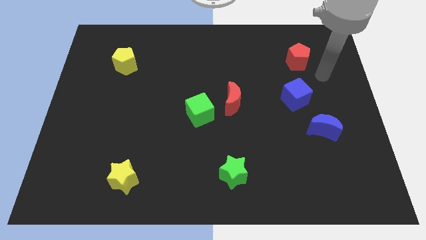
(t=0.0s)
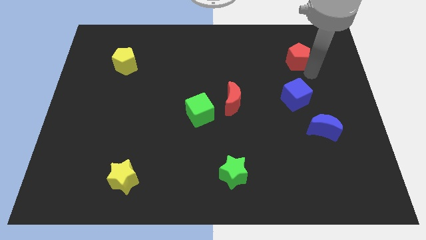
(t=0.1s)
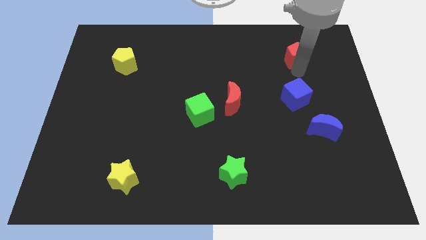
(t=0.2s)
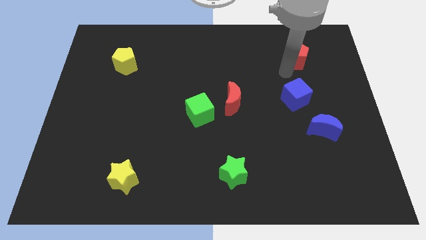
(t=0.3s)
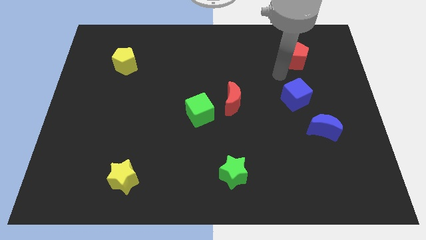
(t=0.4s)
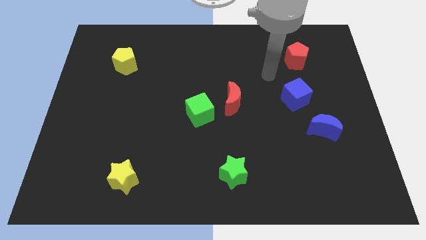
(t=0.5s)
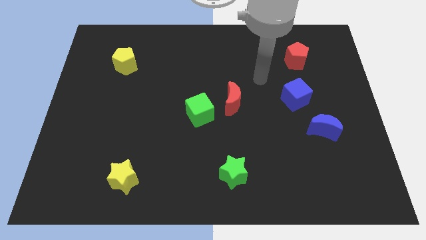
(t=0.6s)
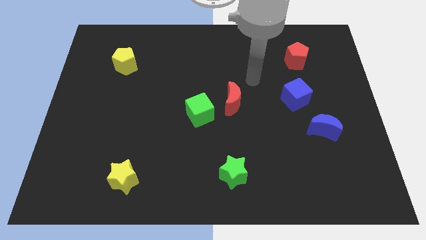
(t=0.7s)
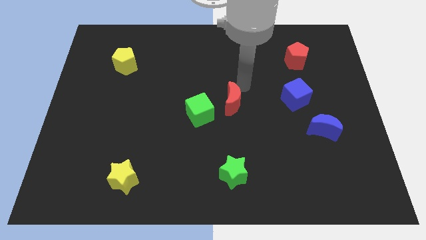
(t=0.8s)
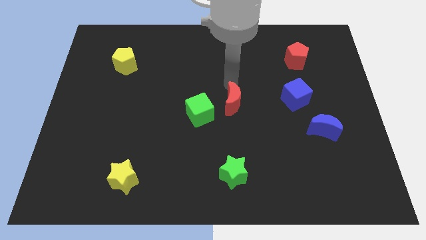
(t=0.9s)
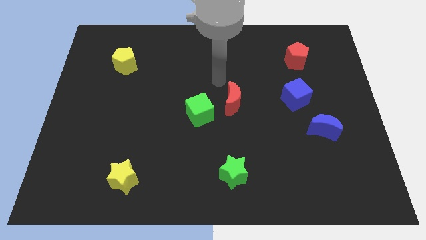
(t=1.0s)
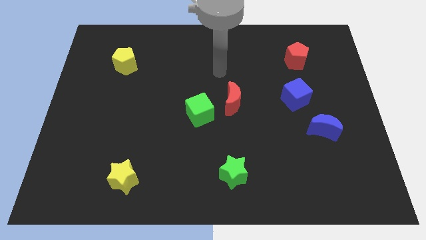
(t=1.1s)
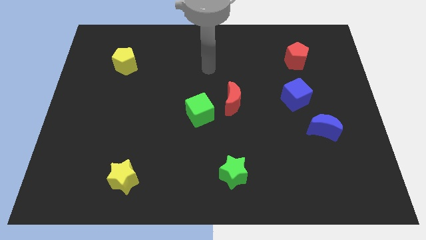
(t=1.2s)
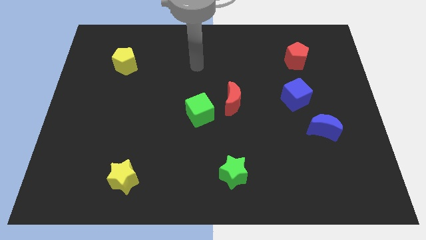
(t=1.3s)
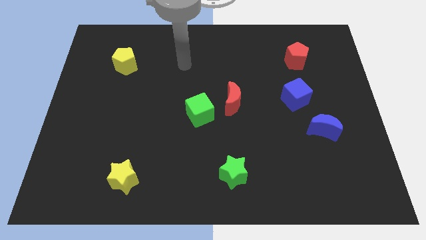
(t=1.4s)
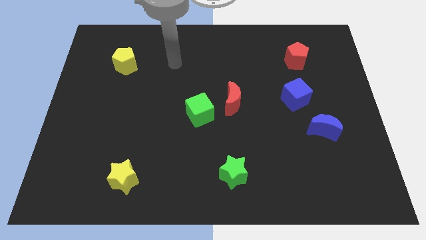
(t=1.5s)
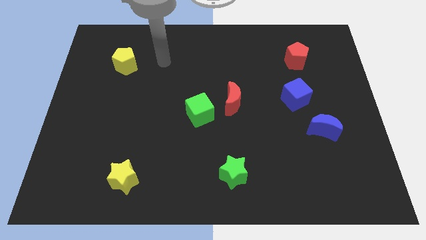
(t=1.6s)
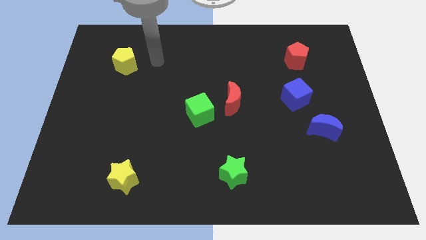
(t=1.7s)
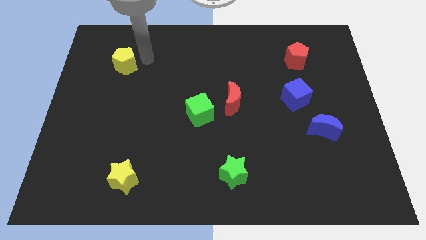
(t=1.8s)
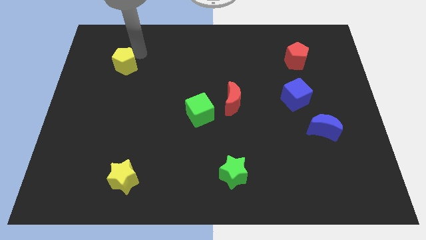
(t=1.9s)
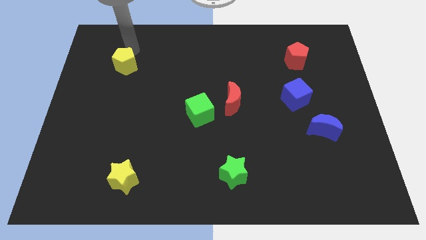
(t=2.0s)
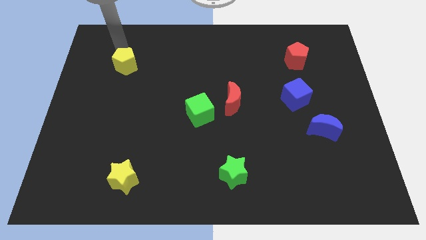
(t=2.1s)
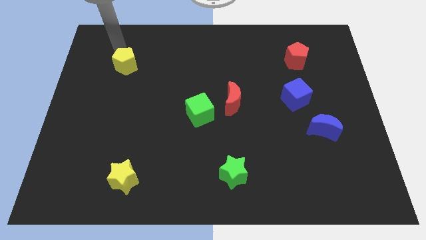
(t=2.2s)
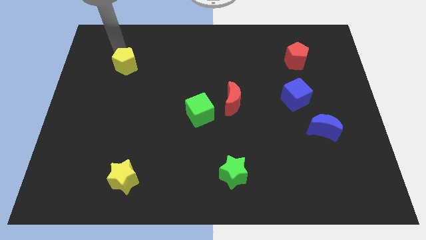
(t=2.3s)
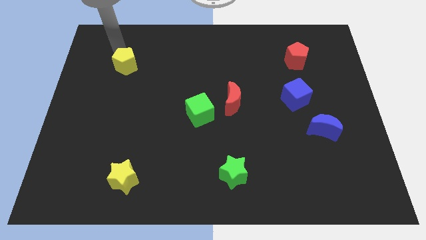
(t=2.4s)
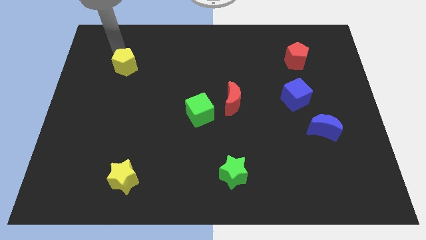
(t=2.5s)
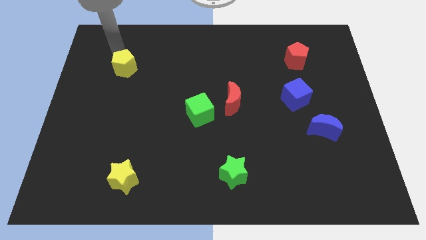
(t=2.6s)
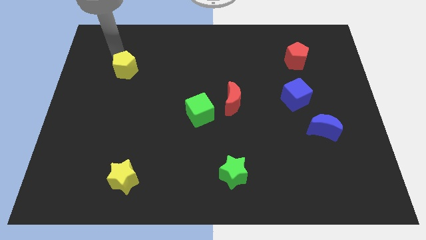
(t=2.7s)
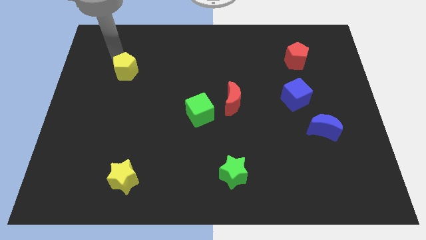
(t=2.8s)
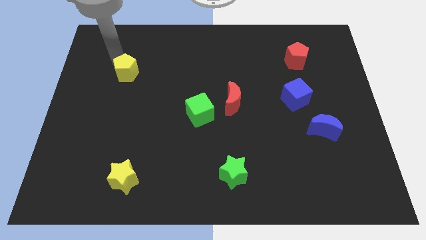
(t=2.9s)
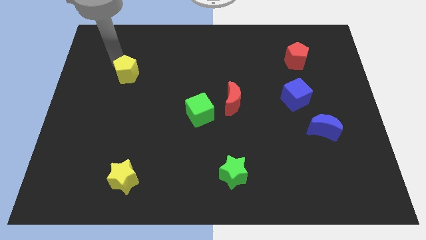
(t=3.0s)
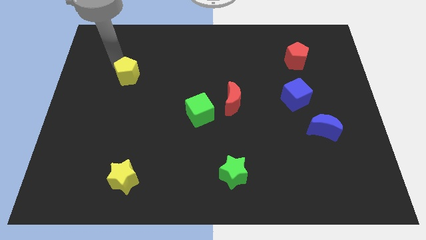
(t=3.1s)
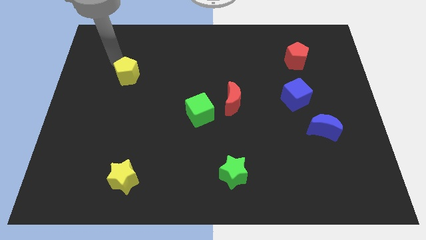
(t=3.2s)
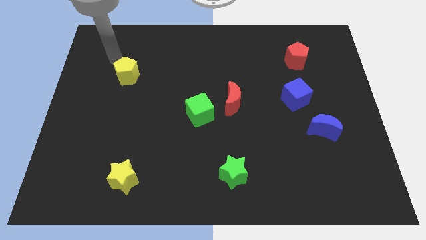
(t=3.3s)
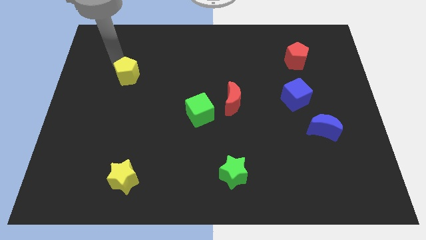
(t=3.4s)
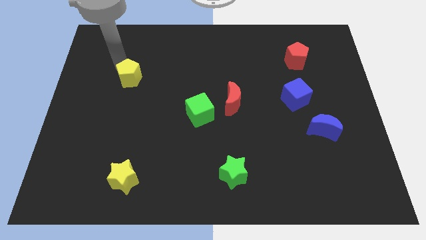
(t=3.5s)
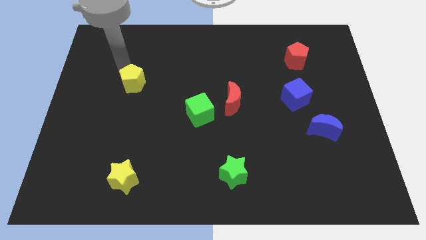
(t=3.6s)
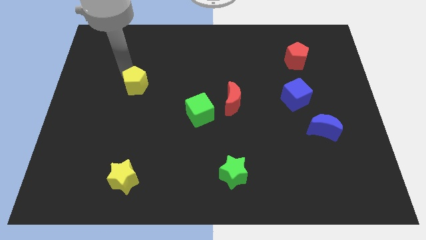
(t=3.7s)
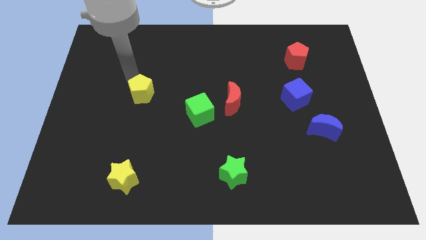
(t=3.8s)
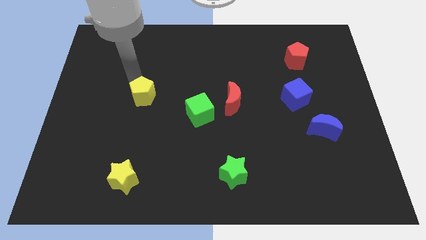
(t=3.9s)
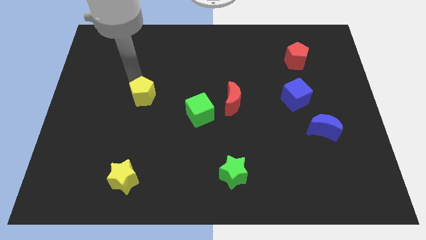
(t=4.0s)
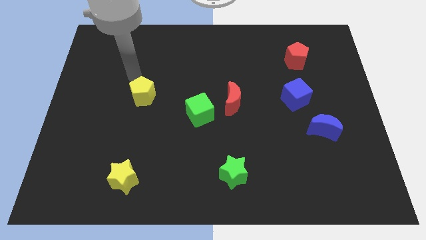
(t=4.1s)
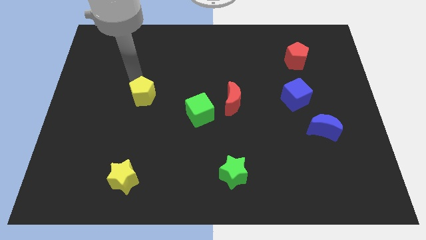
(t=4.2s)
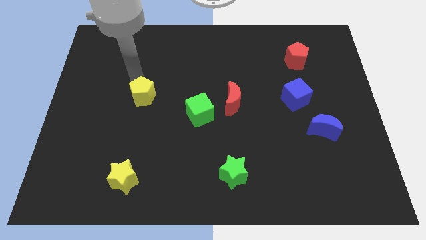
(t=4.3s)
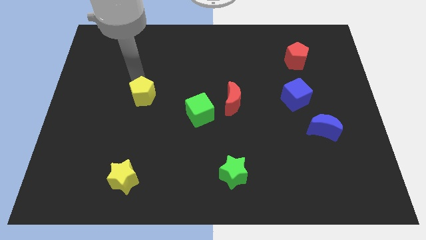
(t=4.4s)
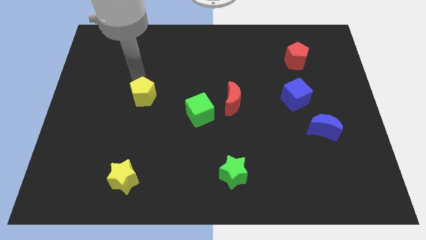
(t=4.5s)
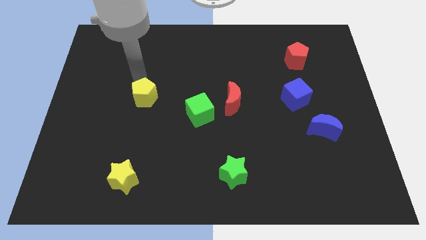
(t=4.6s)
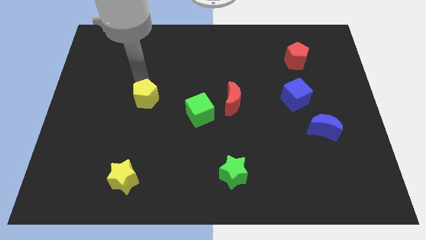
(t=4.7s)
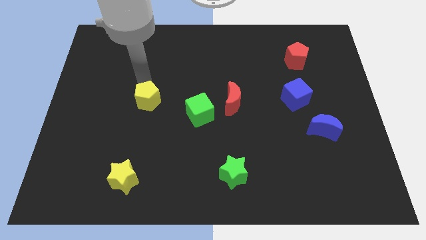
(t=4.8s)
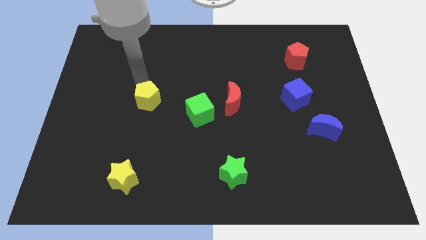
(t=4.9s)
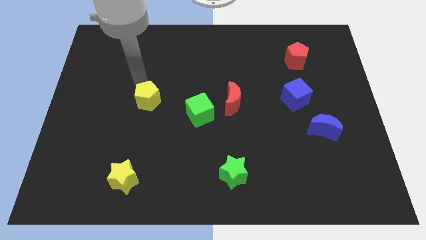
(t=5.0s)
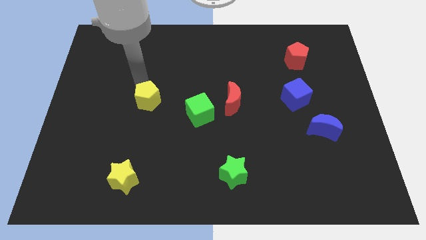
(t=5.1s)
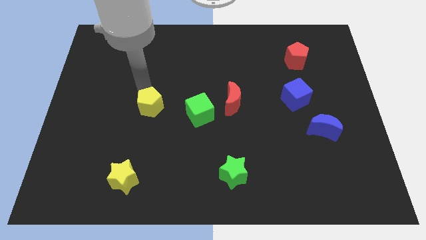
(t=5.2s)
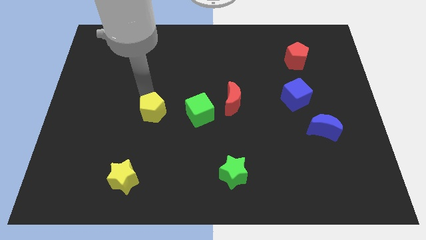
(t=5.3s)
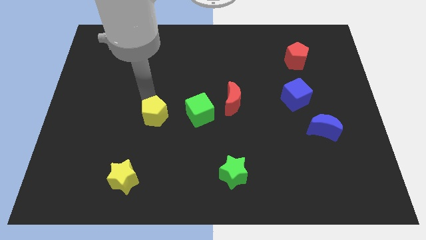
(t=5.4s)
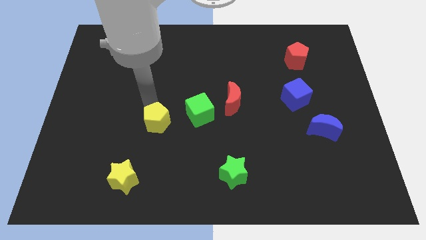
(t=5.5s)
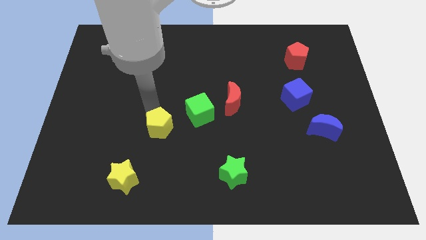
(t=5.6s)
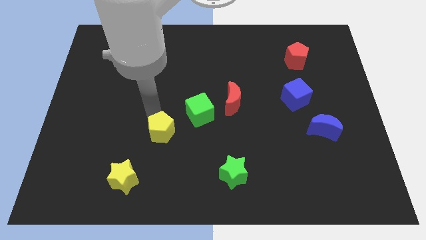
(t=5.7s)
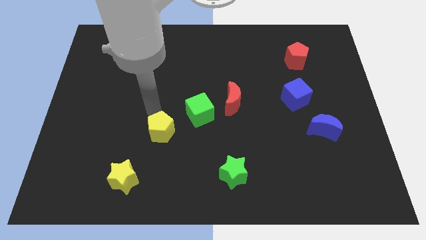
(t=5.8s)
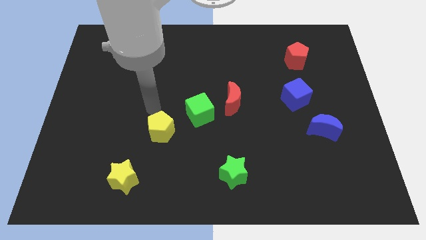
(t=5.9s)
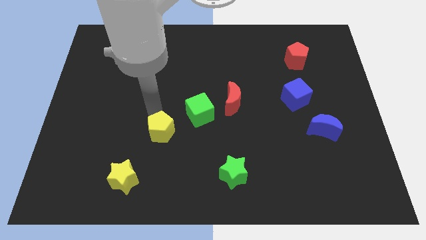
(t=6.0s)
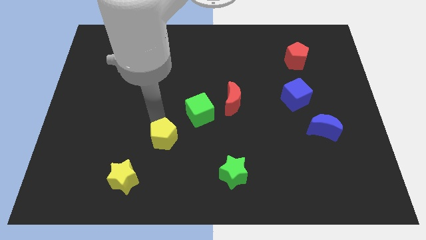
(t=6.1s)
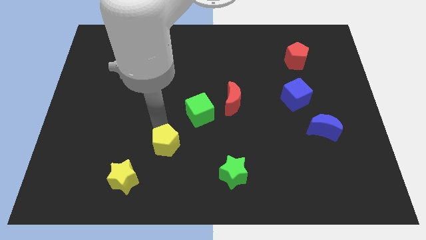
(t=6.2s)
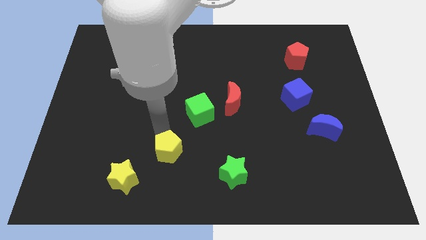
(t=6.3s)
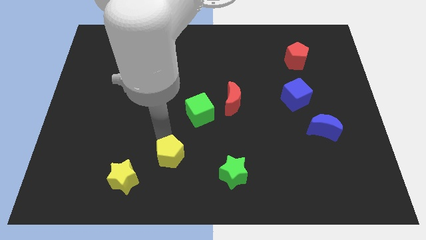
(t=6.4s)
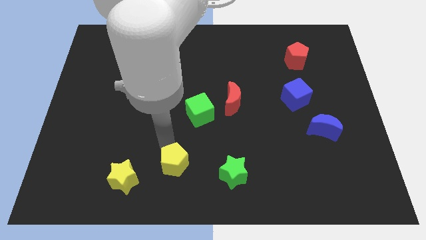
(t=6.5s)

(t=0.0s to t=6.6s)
slide the yellow pentagon just right of the yellow star

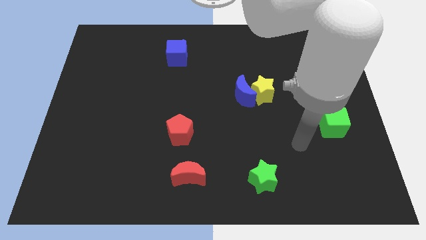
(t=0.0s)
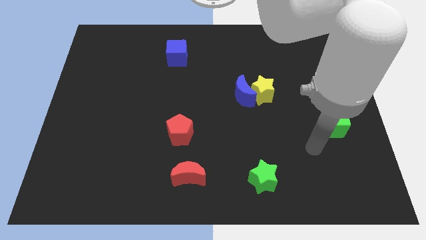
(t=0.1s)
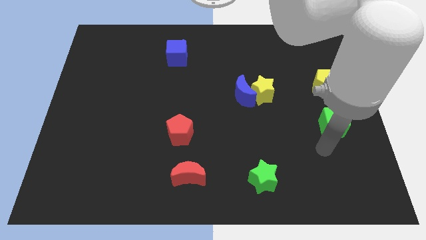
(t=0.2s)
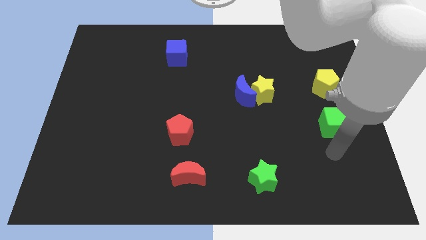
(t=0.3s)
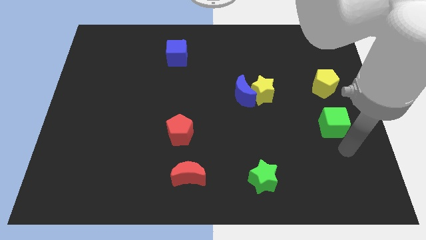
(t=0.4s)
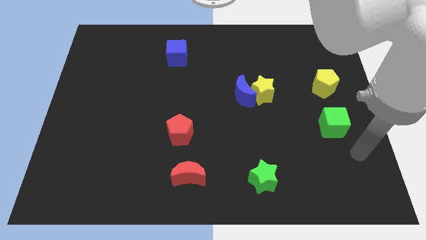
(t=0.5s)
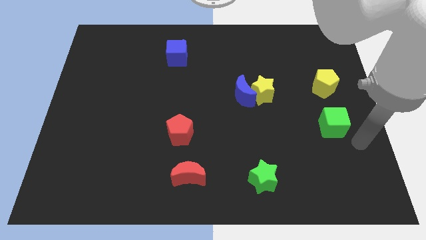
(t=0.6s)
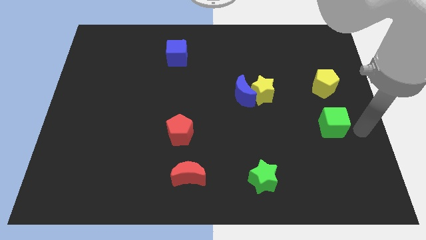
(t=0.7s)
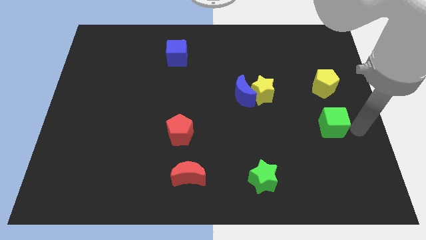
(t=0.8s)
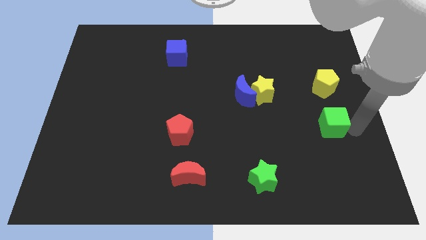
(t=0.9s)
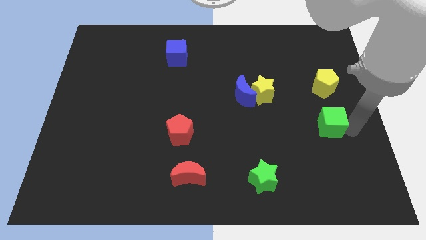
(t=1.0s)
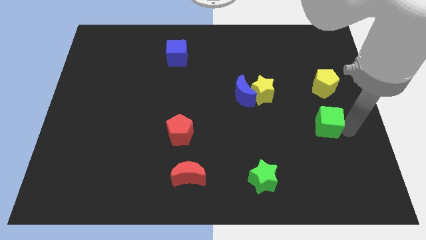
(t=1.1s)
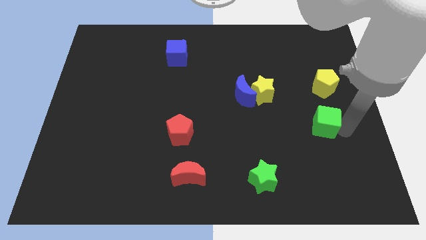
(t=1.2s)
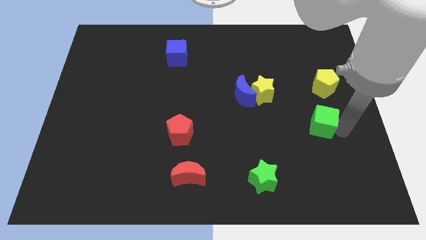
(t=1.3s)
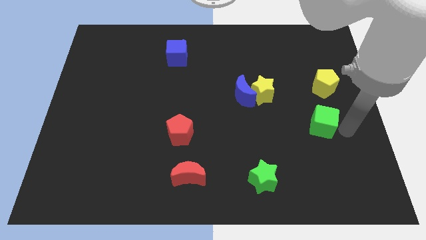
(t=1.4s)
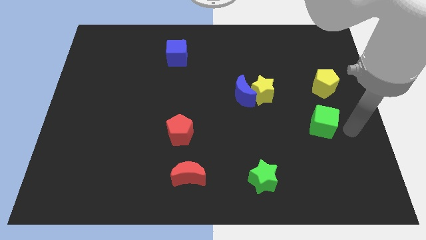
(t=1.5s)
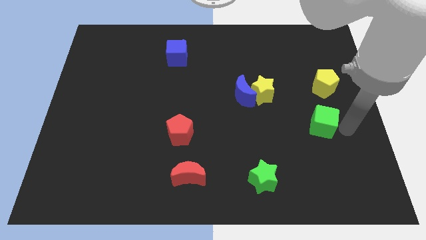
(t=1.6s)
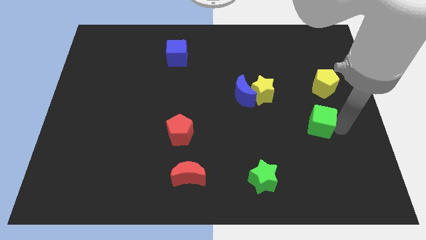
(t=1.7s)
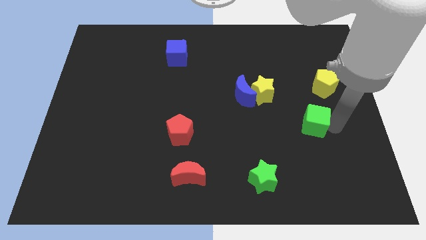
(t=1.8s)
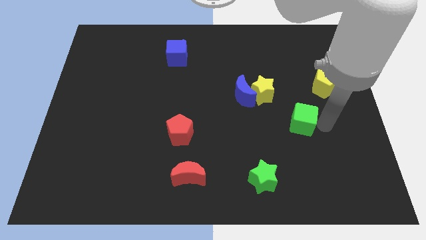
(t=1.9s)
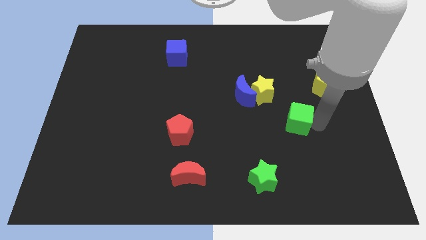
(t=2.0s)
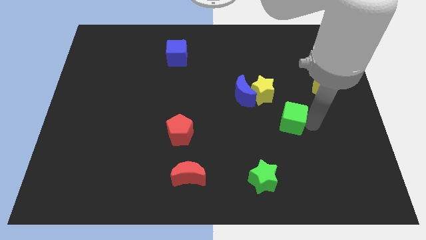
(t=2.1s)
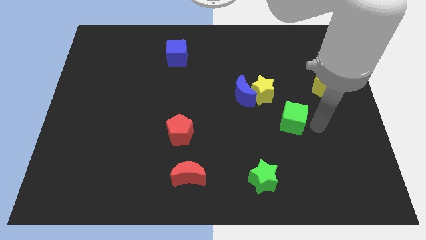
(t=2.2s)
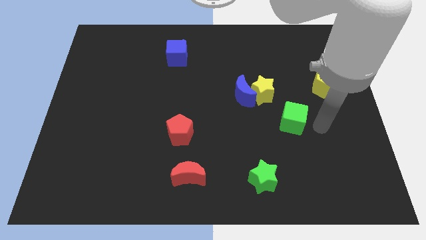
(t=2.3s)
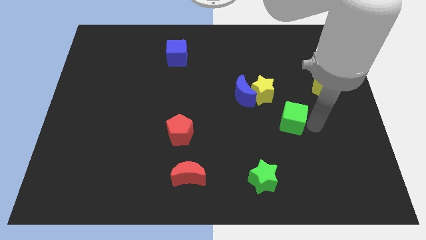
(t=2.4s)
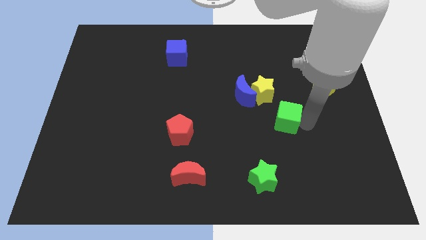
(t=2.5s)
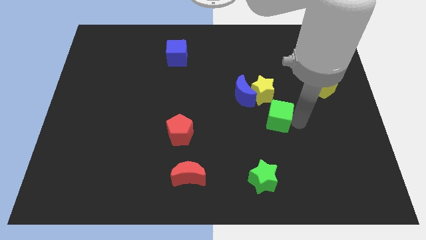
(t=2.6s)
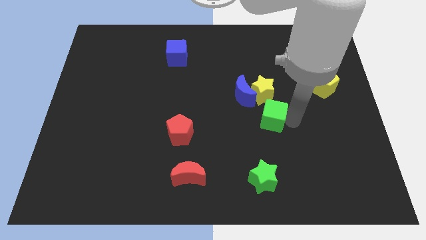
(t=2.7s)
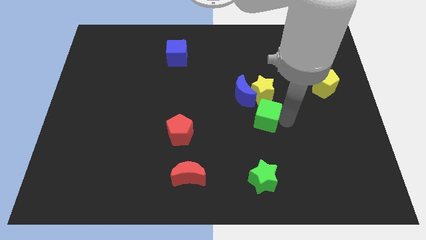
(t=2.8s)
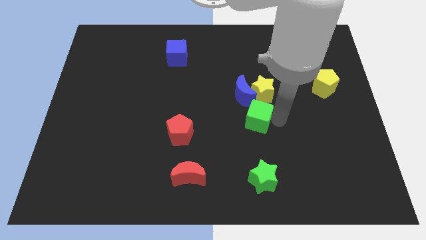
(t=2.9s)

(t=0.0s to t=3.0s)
push the green cube to the bottom left side of the yellow star
